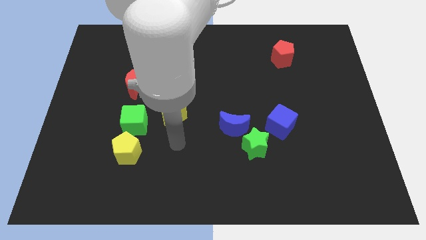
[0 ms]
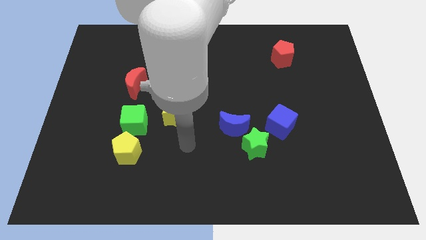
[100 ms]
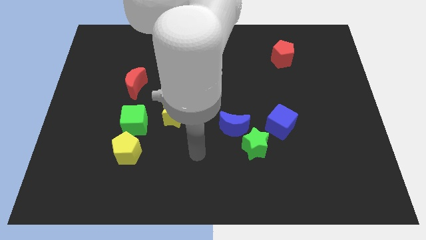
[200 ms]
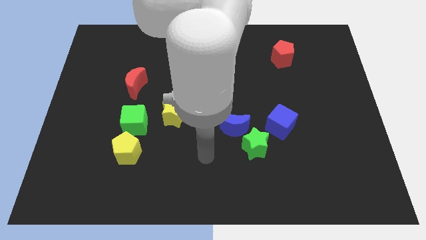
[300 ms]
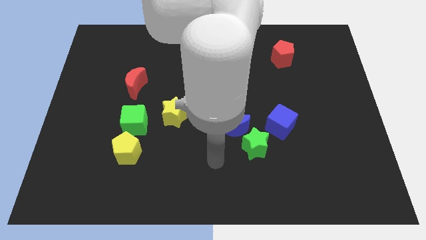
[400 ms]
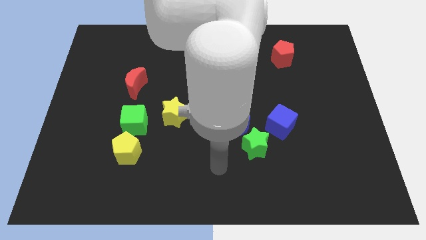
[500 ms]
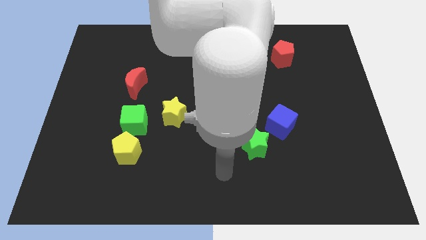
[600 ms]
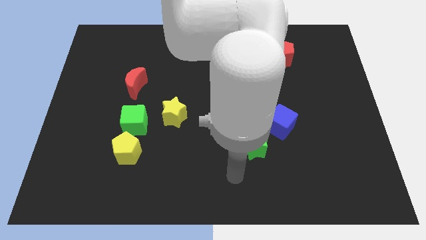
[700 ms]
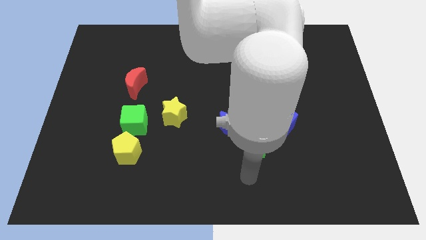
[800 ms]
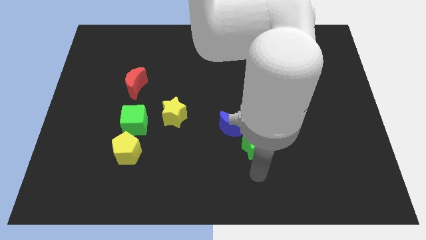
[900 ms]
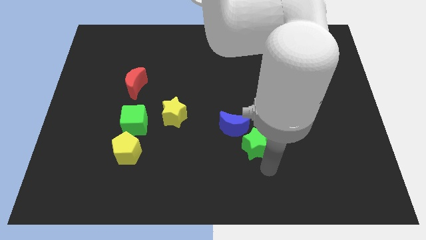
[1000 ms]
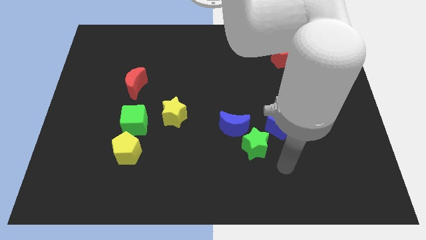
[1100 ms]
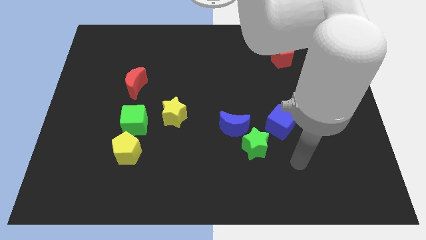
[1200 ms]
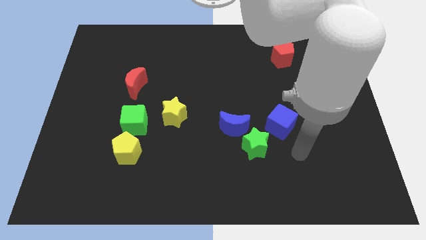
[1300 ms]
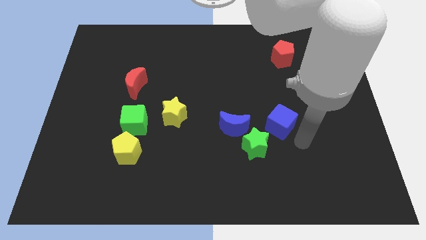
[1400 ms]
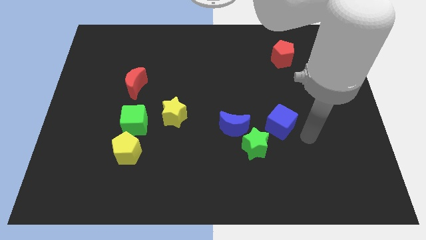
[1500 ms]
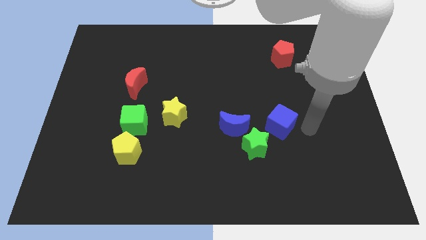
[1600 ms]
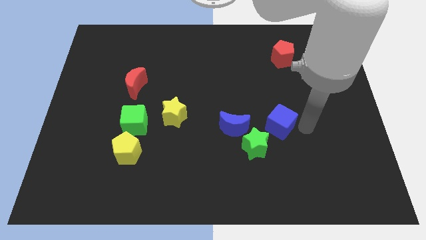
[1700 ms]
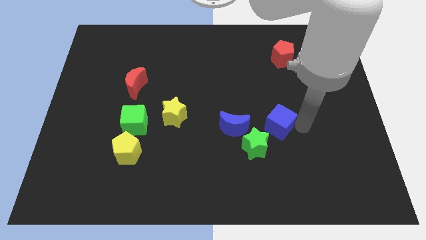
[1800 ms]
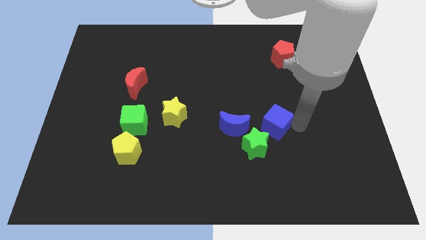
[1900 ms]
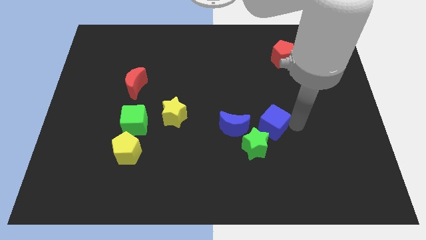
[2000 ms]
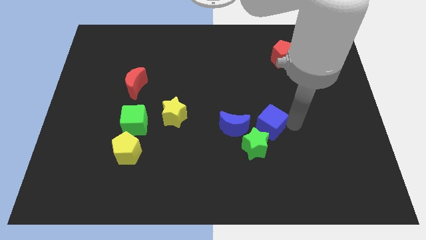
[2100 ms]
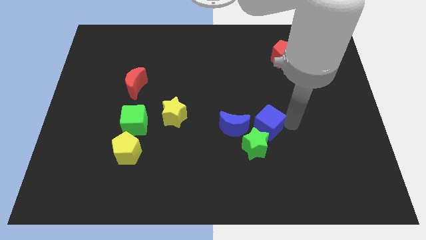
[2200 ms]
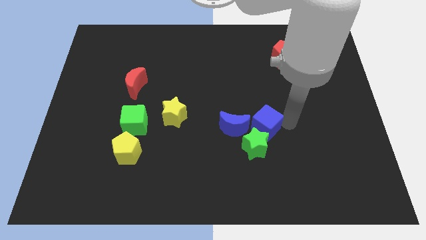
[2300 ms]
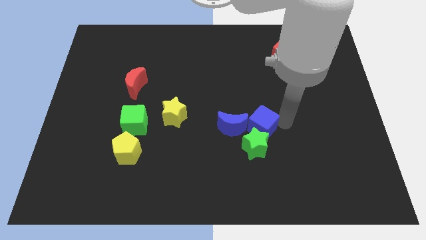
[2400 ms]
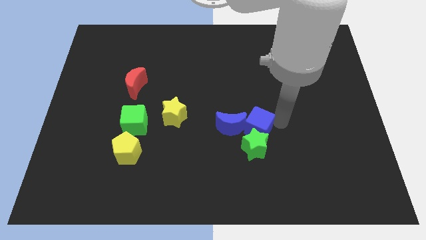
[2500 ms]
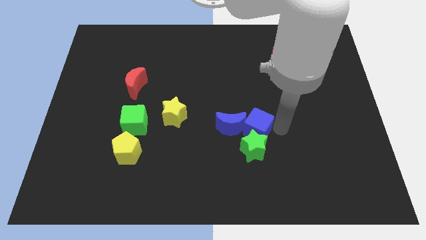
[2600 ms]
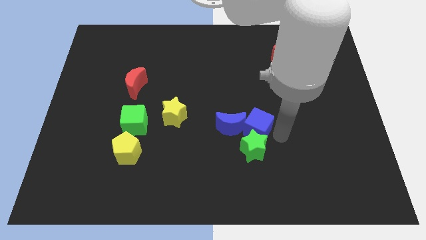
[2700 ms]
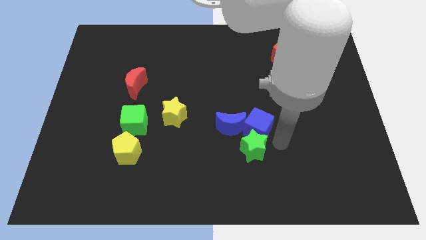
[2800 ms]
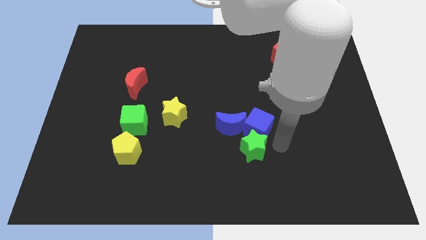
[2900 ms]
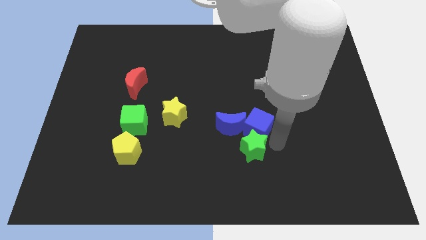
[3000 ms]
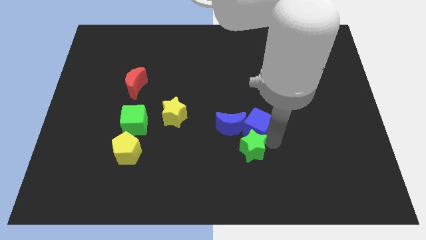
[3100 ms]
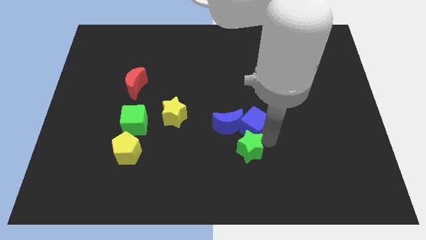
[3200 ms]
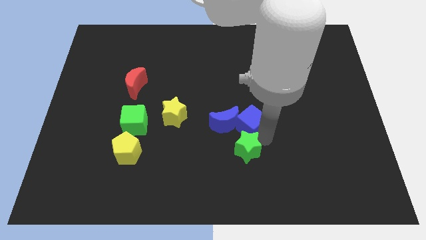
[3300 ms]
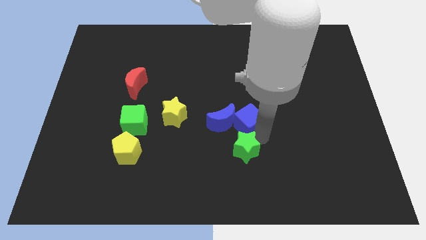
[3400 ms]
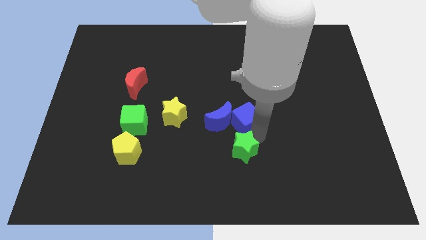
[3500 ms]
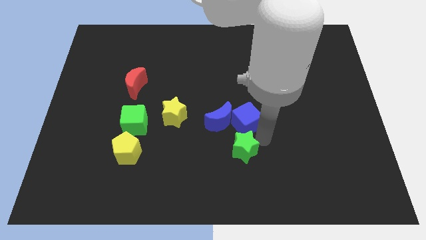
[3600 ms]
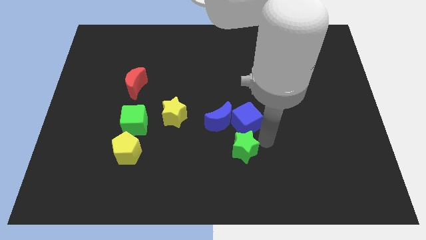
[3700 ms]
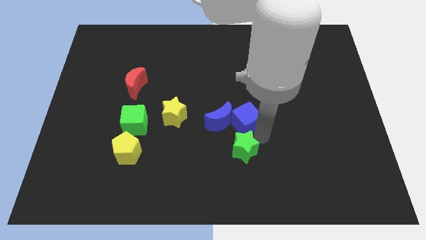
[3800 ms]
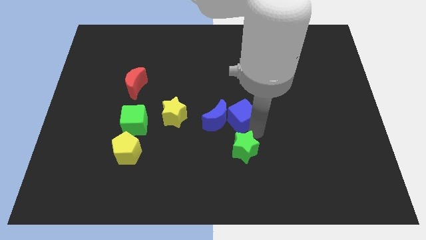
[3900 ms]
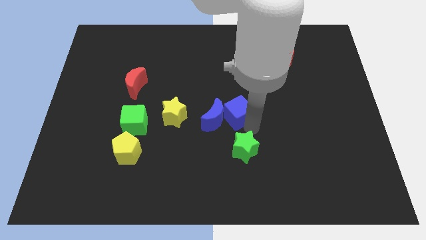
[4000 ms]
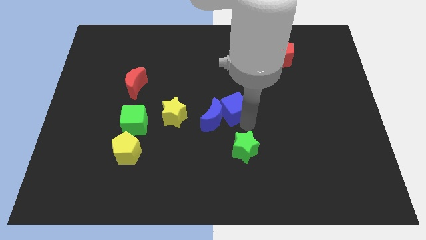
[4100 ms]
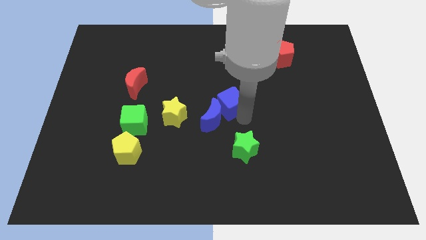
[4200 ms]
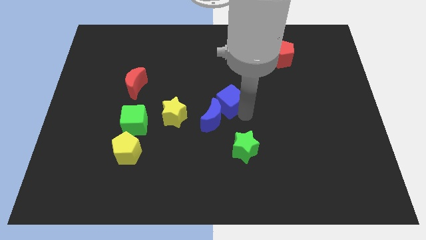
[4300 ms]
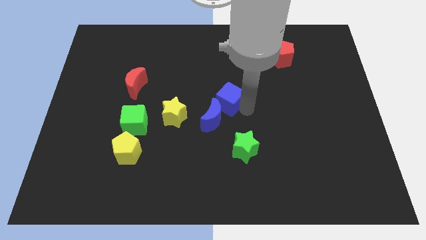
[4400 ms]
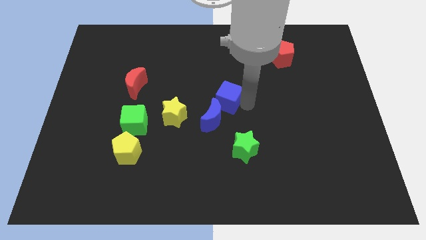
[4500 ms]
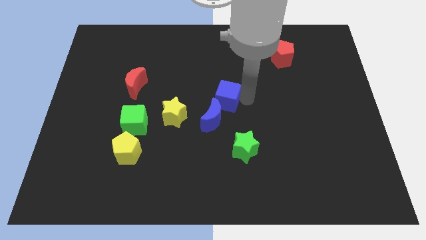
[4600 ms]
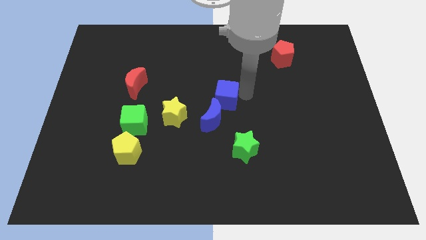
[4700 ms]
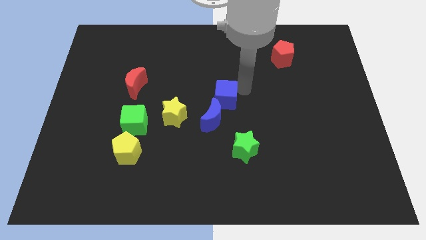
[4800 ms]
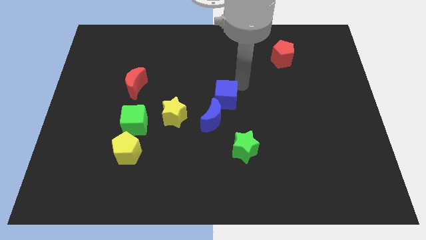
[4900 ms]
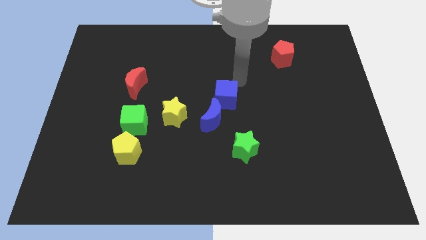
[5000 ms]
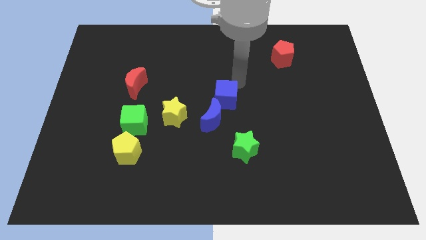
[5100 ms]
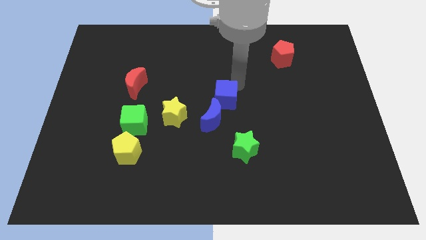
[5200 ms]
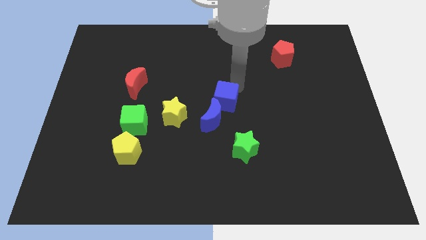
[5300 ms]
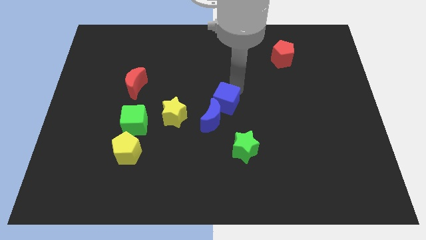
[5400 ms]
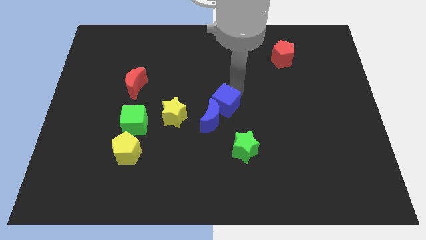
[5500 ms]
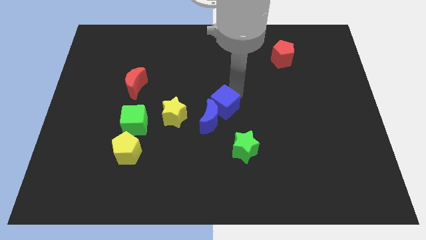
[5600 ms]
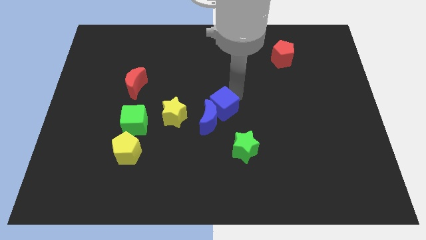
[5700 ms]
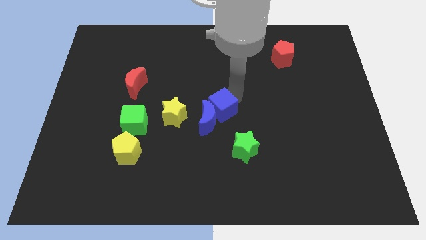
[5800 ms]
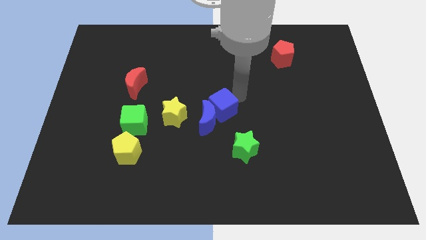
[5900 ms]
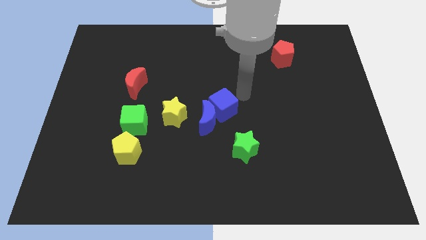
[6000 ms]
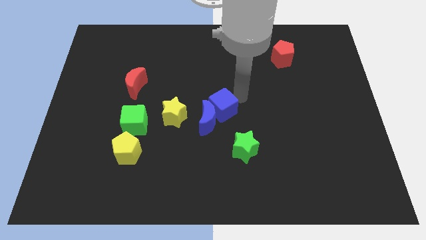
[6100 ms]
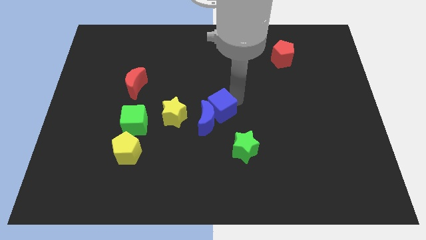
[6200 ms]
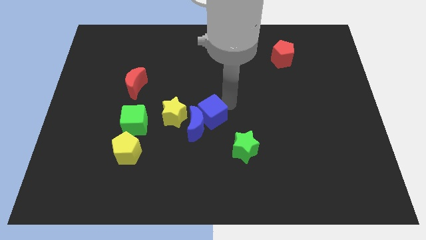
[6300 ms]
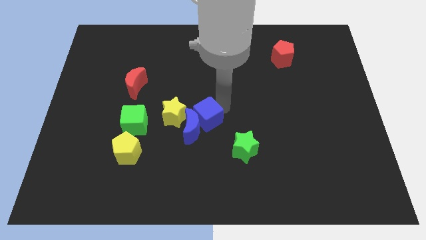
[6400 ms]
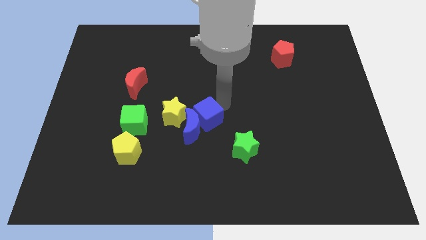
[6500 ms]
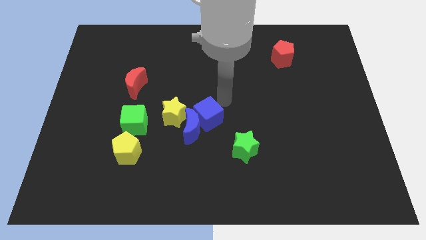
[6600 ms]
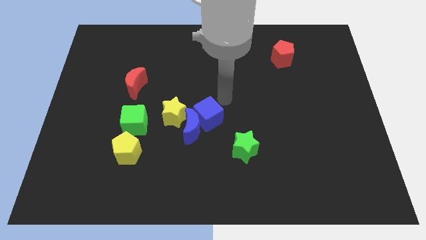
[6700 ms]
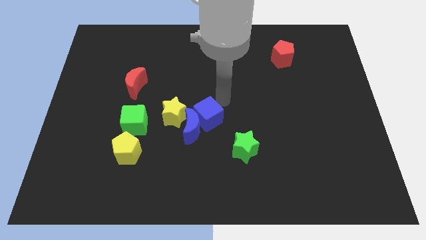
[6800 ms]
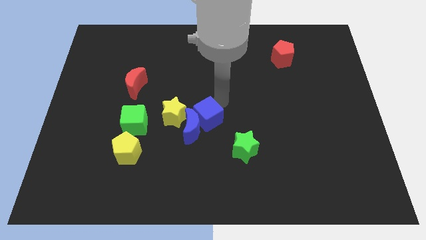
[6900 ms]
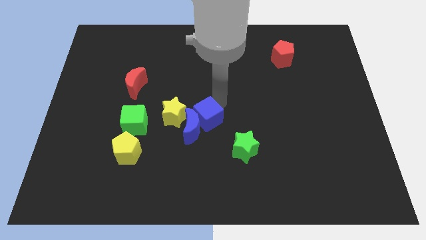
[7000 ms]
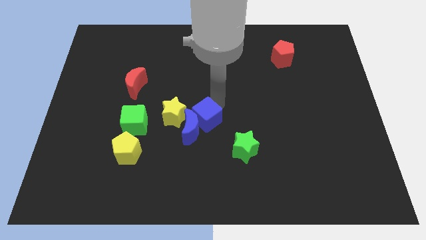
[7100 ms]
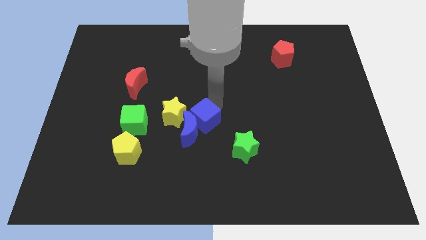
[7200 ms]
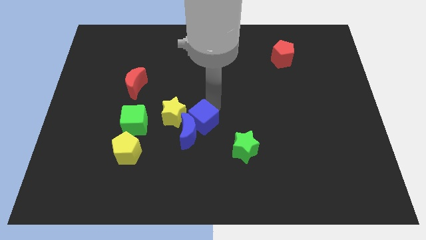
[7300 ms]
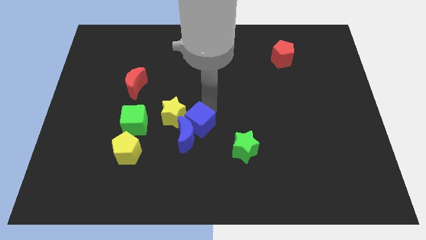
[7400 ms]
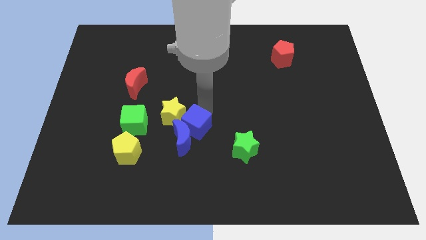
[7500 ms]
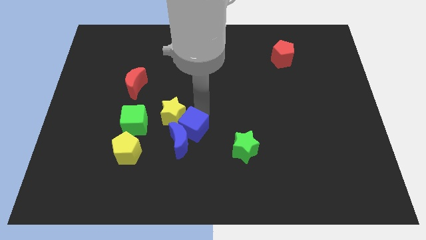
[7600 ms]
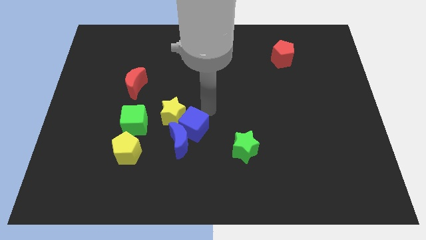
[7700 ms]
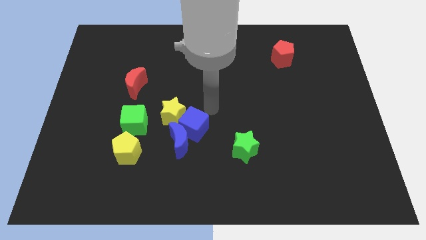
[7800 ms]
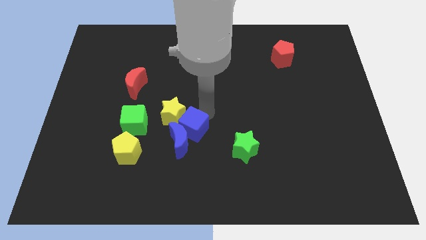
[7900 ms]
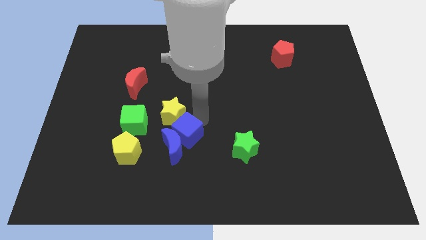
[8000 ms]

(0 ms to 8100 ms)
put the blue cube to the bottom of the yellow star
